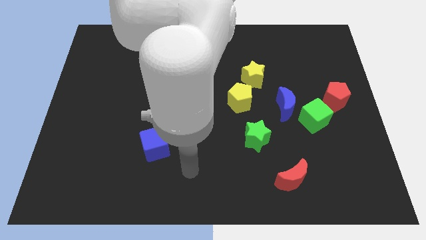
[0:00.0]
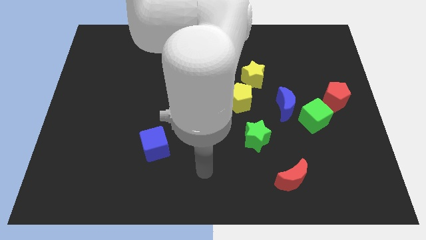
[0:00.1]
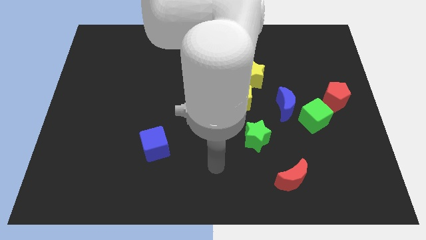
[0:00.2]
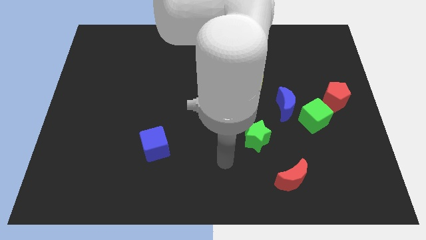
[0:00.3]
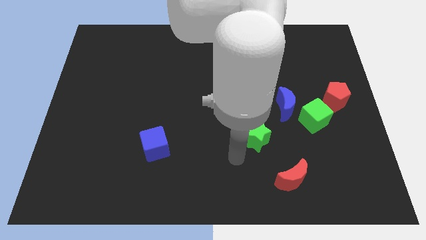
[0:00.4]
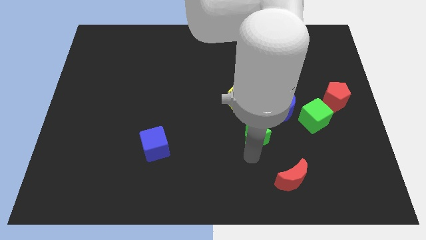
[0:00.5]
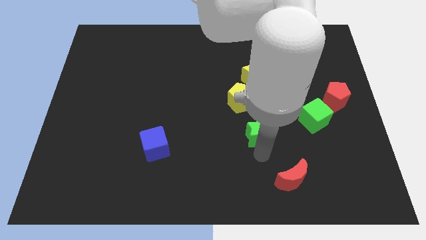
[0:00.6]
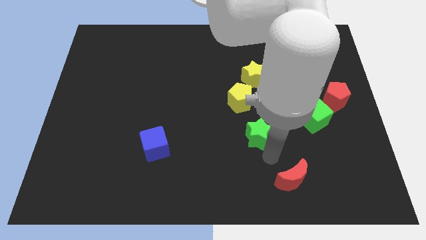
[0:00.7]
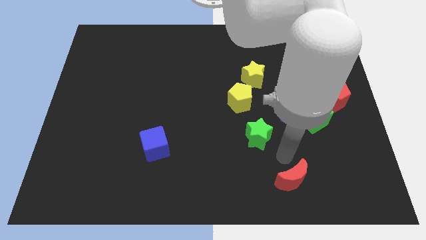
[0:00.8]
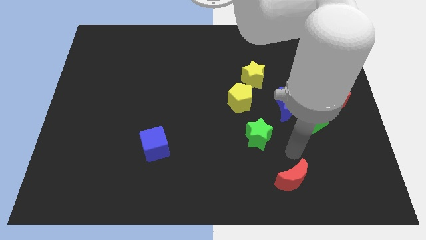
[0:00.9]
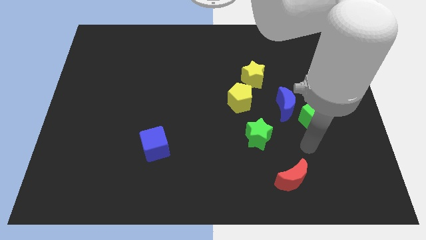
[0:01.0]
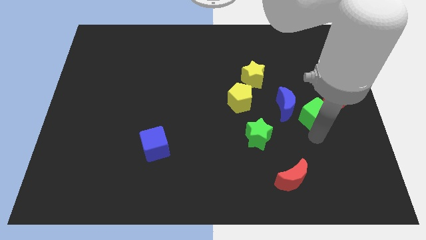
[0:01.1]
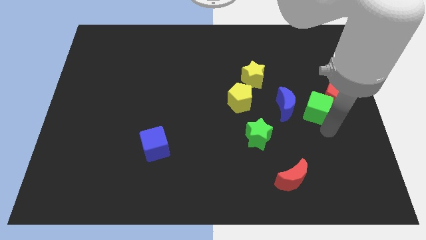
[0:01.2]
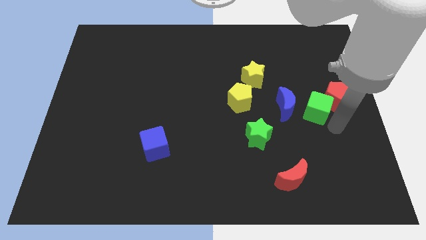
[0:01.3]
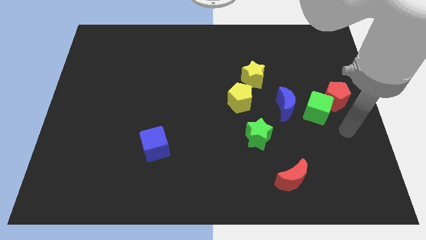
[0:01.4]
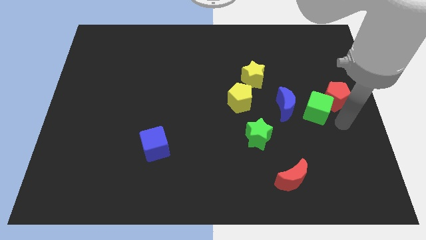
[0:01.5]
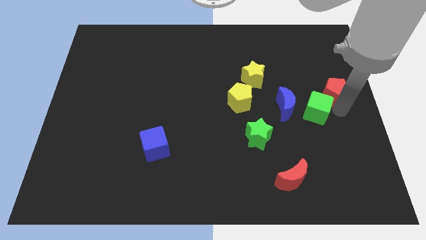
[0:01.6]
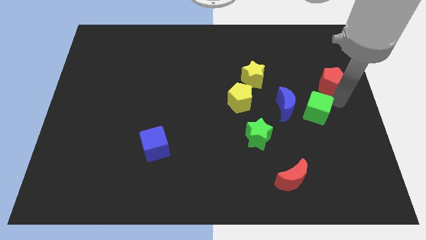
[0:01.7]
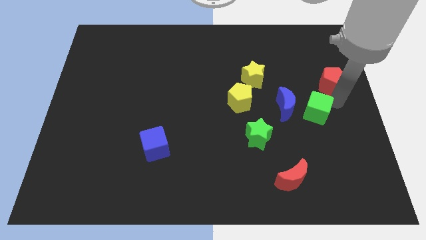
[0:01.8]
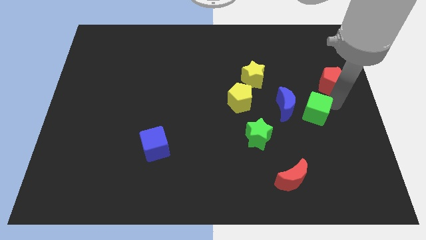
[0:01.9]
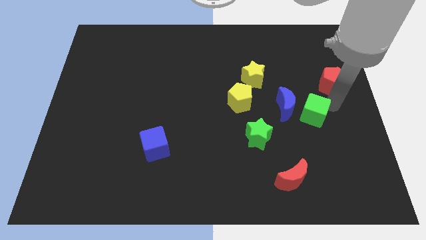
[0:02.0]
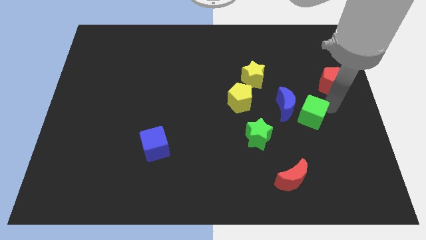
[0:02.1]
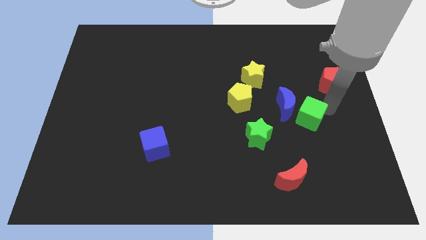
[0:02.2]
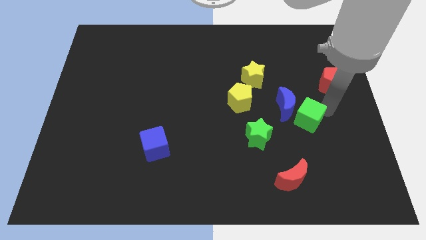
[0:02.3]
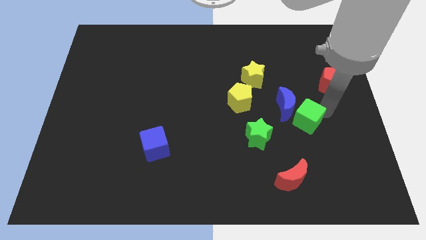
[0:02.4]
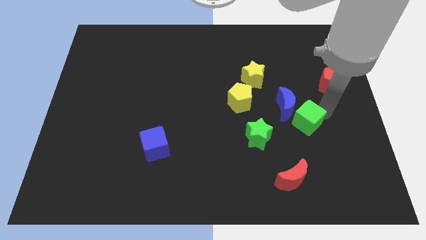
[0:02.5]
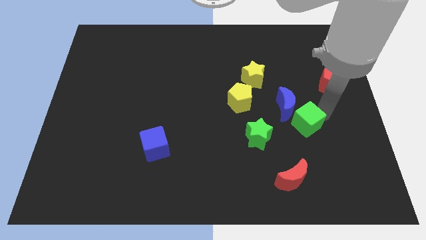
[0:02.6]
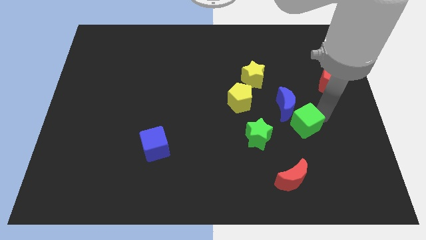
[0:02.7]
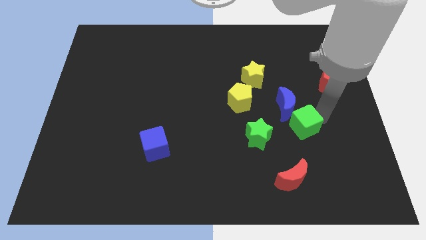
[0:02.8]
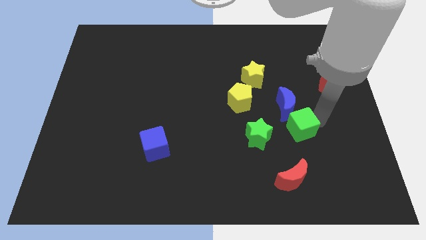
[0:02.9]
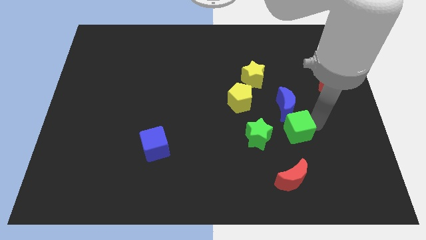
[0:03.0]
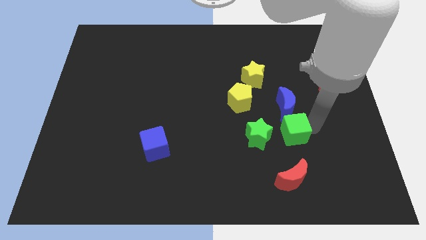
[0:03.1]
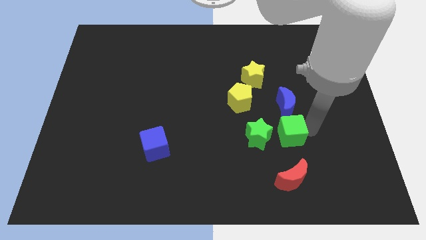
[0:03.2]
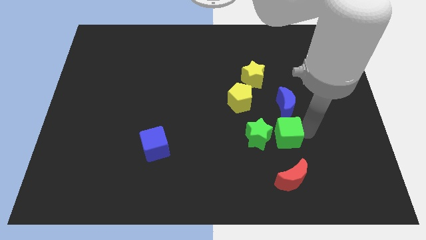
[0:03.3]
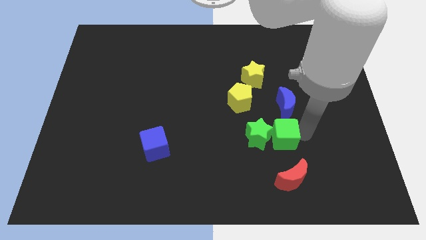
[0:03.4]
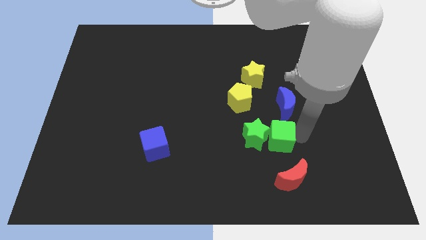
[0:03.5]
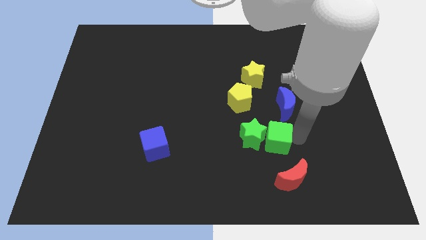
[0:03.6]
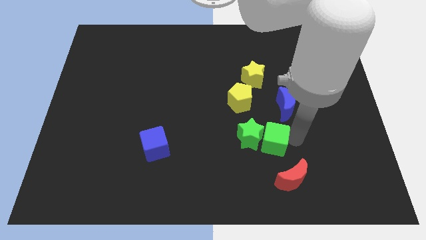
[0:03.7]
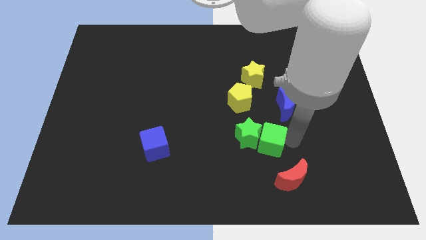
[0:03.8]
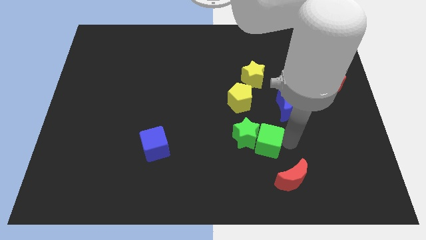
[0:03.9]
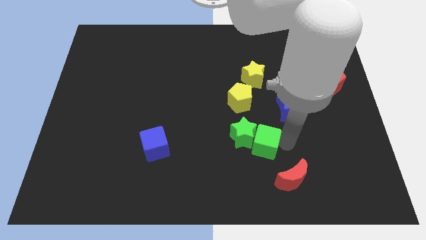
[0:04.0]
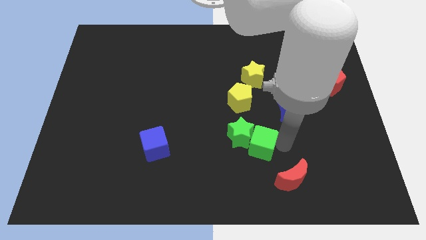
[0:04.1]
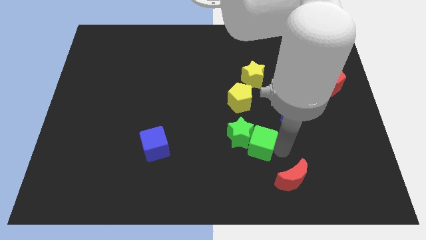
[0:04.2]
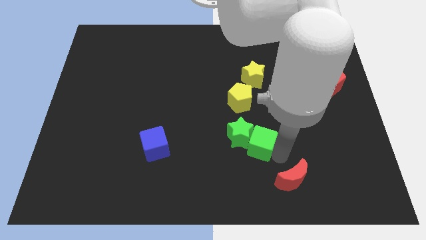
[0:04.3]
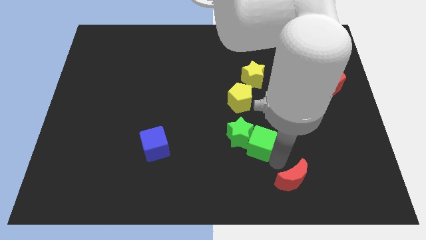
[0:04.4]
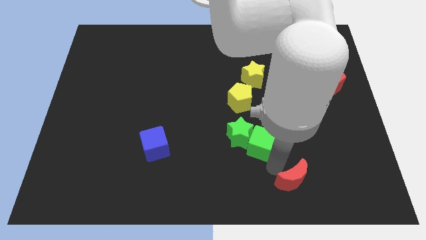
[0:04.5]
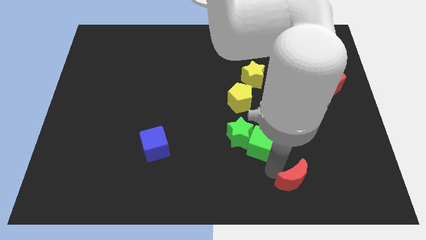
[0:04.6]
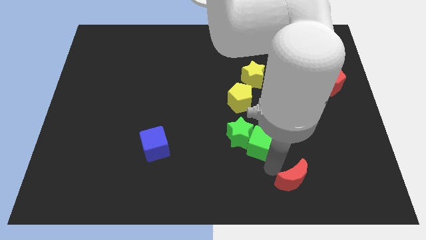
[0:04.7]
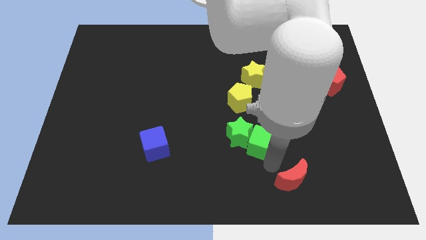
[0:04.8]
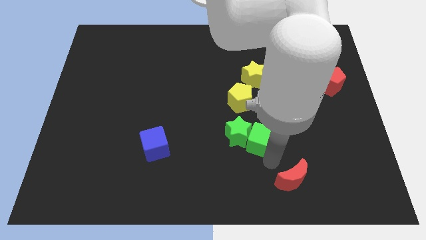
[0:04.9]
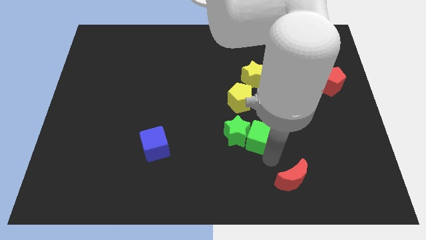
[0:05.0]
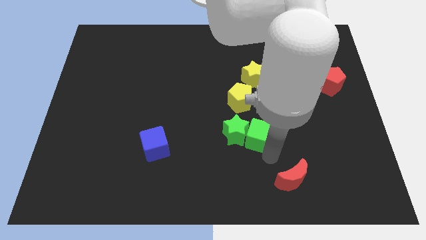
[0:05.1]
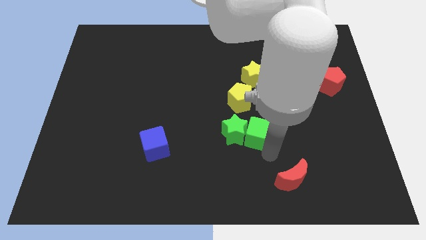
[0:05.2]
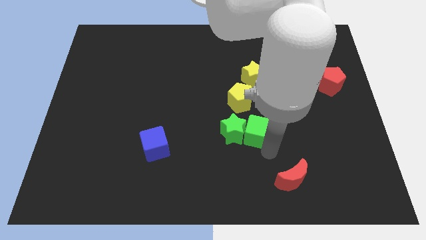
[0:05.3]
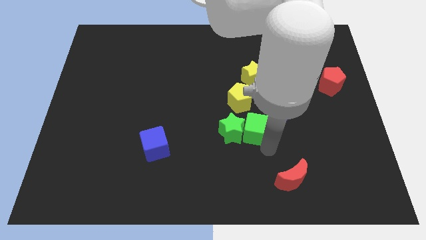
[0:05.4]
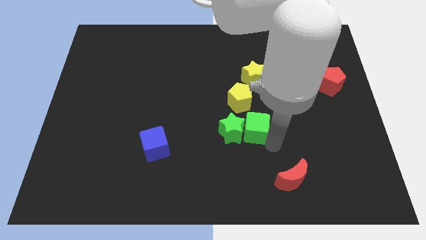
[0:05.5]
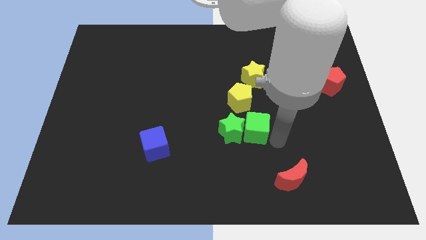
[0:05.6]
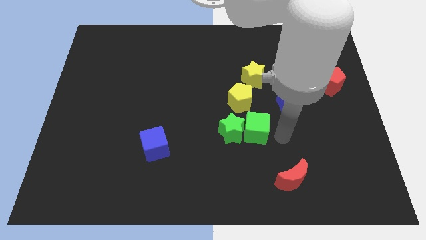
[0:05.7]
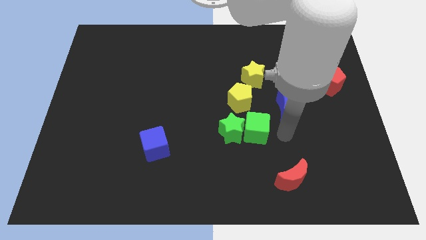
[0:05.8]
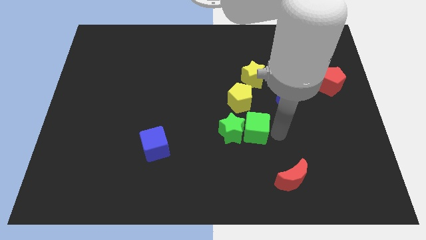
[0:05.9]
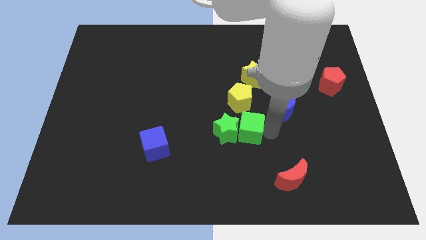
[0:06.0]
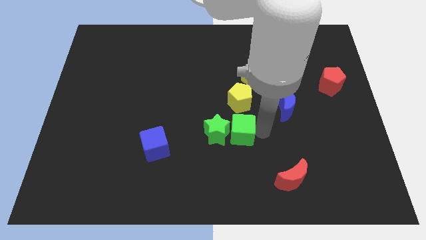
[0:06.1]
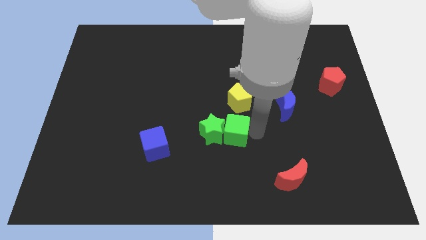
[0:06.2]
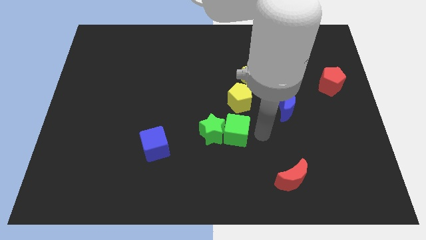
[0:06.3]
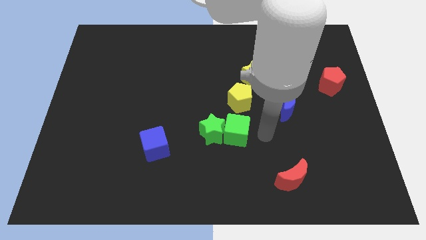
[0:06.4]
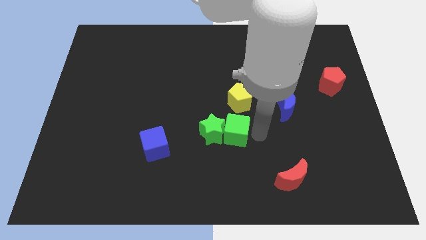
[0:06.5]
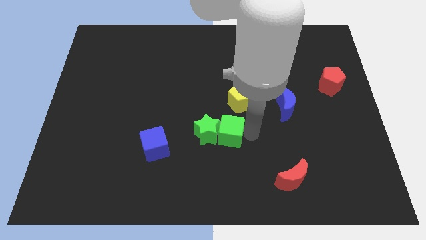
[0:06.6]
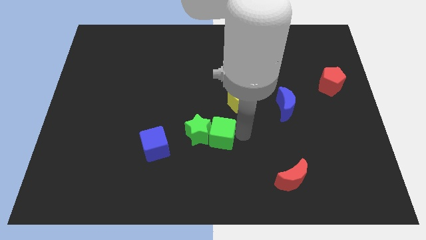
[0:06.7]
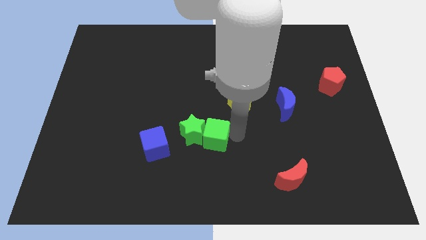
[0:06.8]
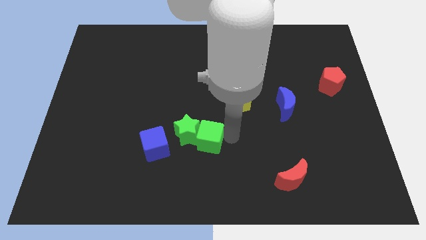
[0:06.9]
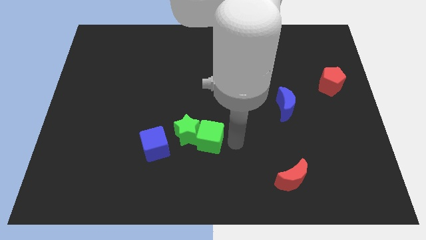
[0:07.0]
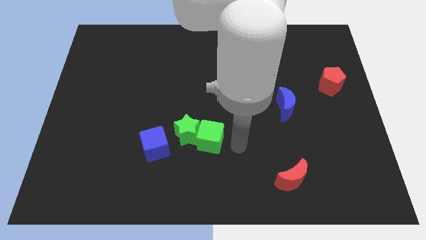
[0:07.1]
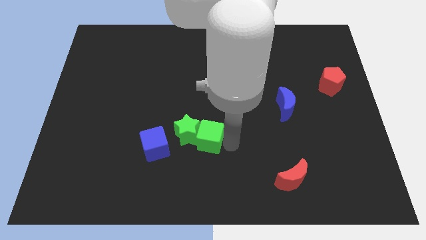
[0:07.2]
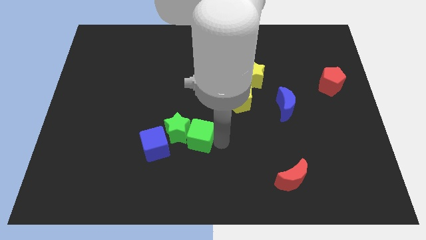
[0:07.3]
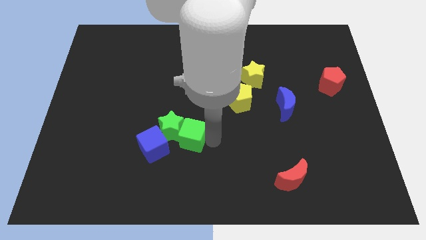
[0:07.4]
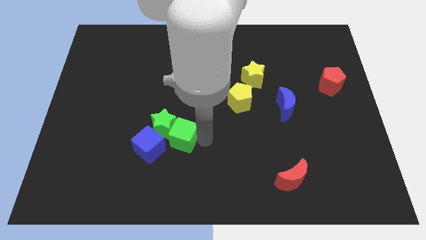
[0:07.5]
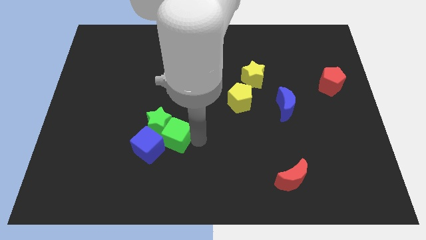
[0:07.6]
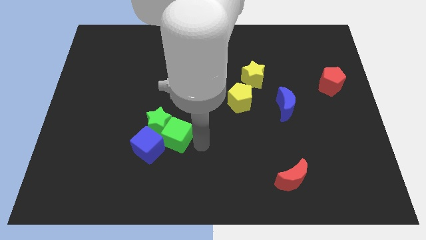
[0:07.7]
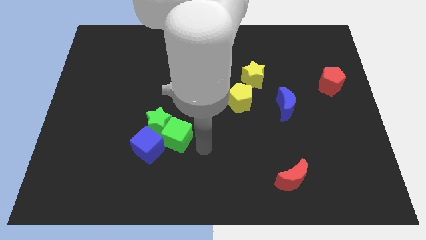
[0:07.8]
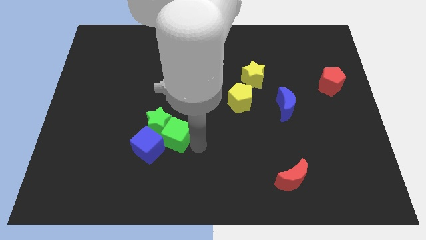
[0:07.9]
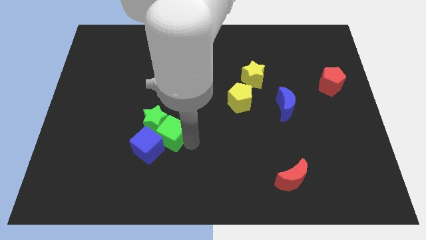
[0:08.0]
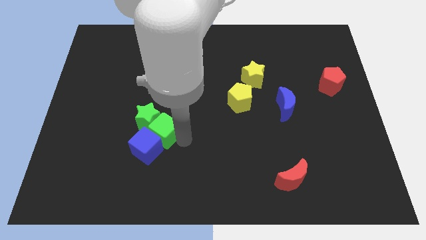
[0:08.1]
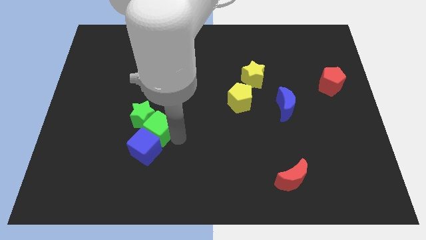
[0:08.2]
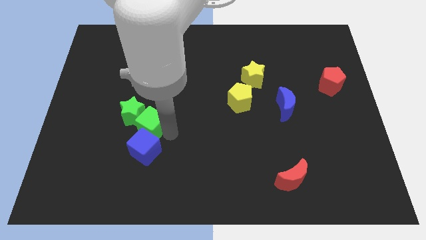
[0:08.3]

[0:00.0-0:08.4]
move the green cube diagonally up and to the left of the blue cube
